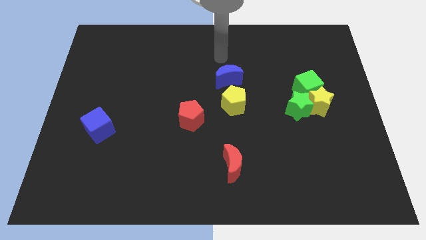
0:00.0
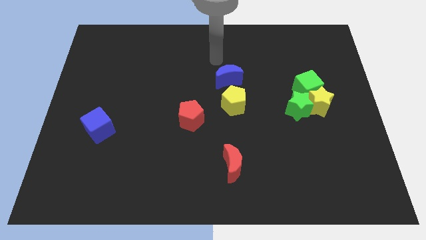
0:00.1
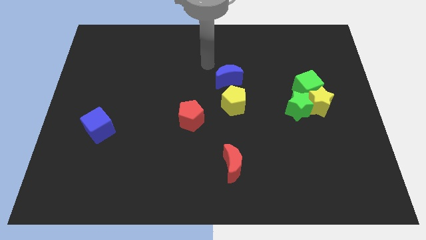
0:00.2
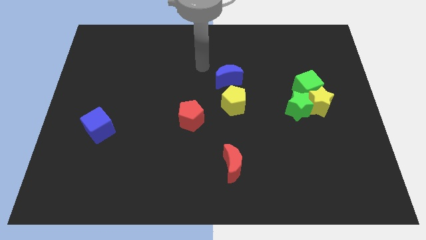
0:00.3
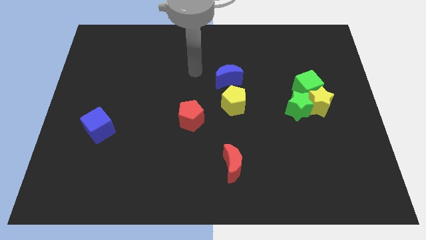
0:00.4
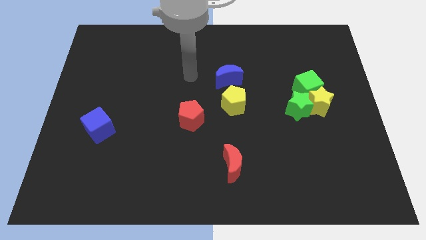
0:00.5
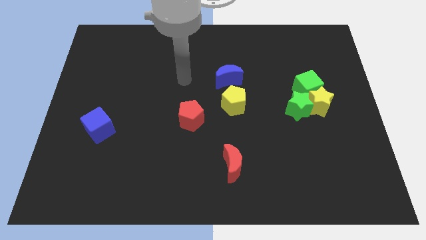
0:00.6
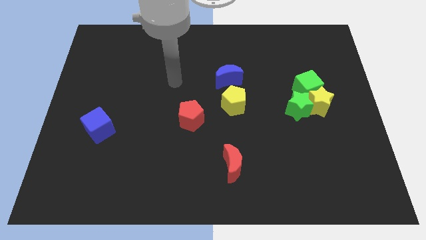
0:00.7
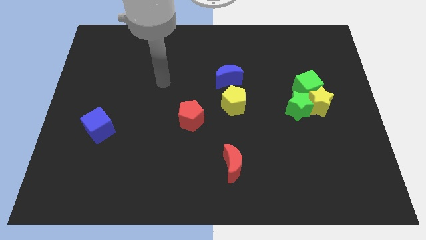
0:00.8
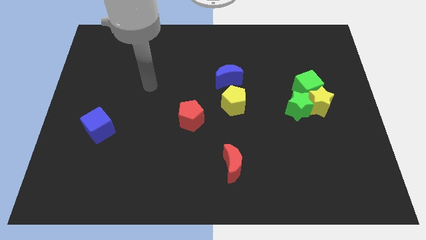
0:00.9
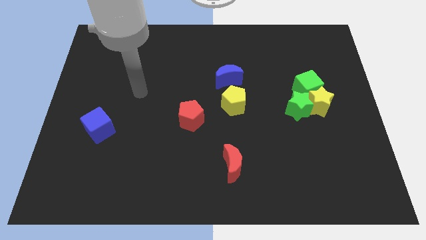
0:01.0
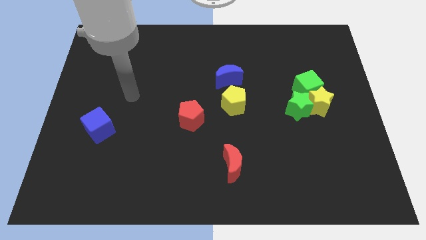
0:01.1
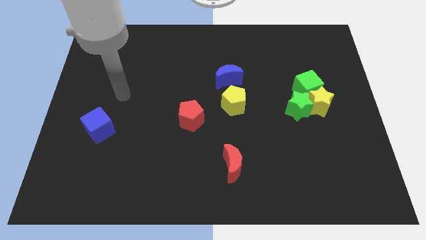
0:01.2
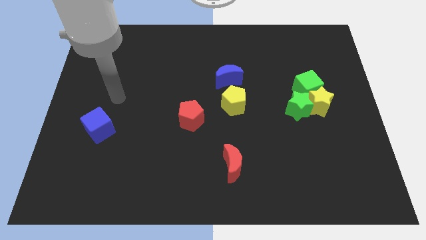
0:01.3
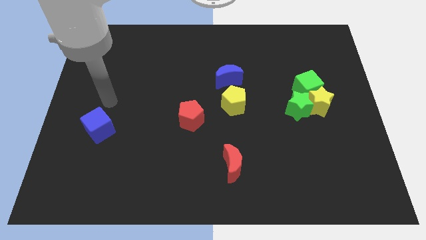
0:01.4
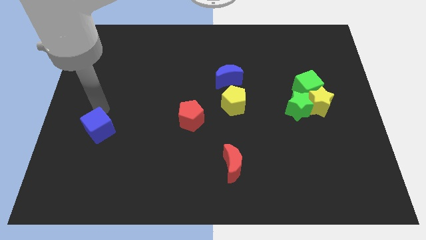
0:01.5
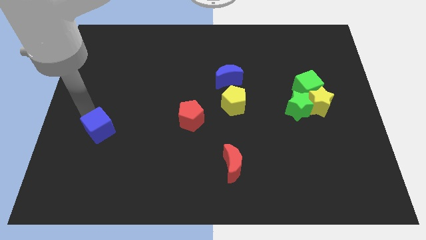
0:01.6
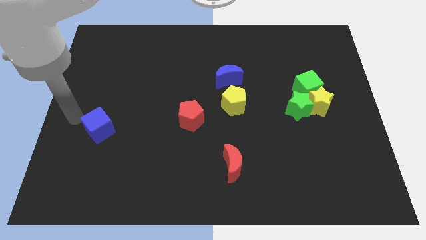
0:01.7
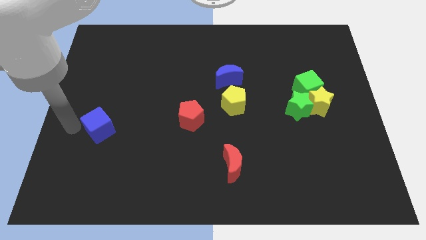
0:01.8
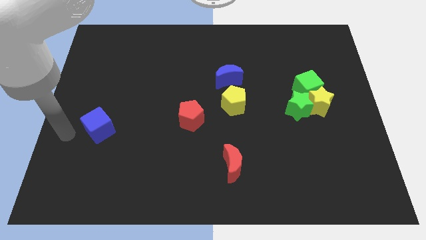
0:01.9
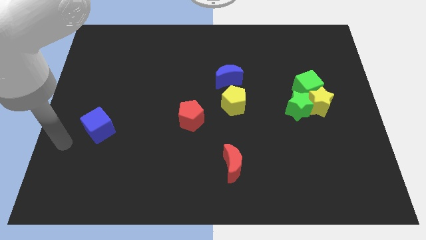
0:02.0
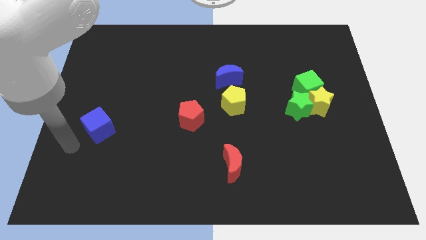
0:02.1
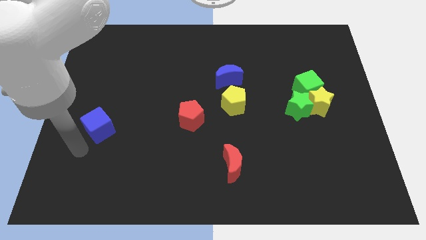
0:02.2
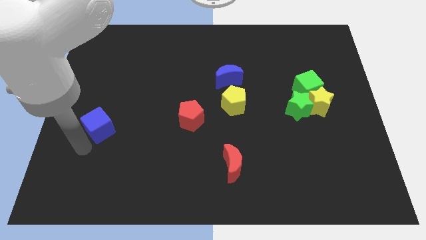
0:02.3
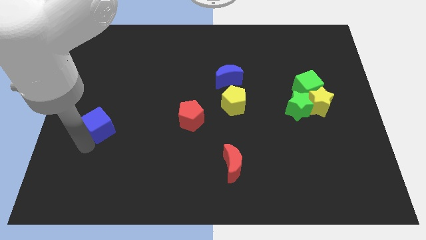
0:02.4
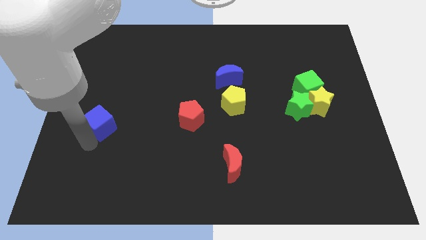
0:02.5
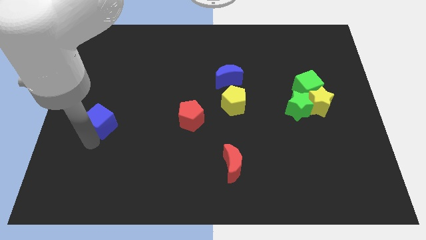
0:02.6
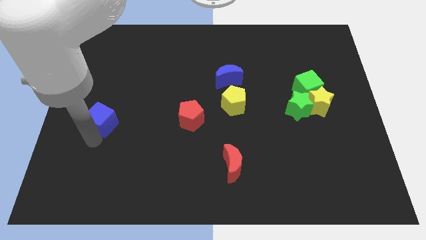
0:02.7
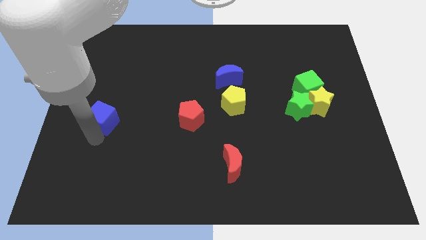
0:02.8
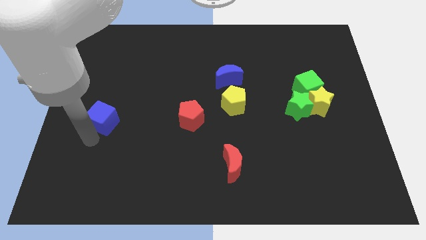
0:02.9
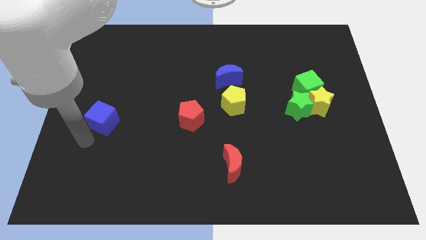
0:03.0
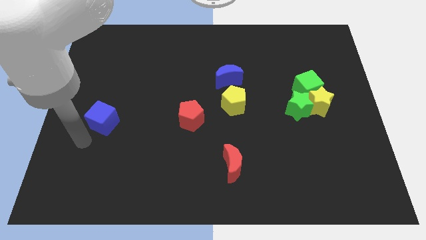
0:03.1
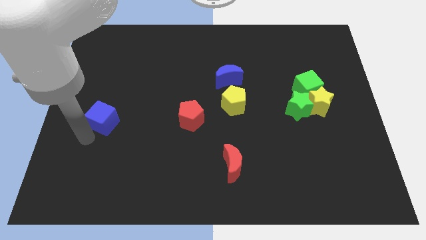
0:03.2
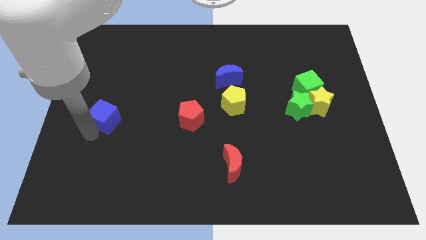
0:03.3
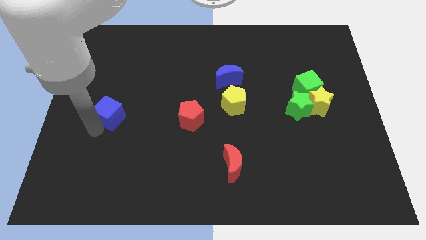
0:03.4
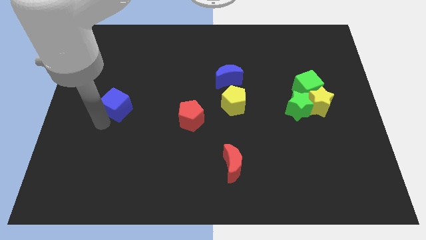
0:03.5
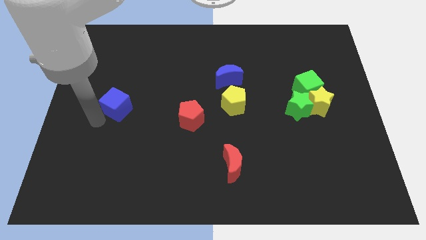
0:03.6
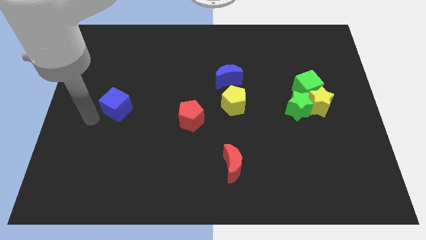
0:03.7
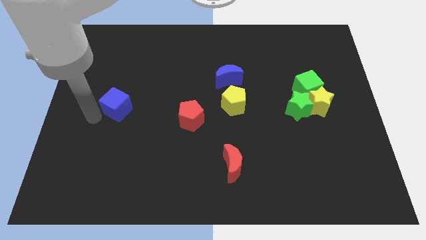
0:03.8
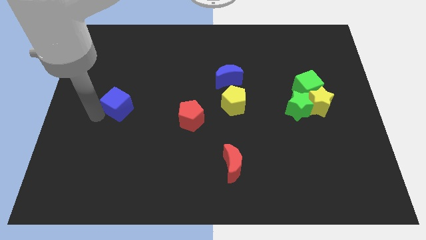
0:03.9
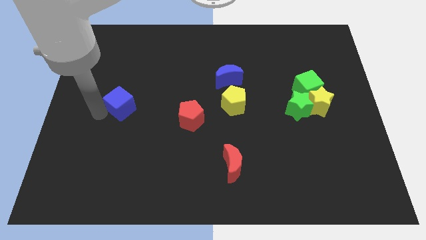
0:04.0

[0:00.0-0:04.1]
slide the blue cube a little bit up and right diagonally

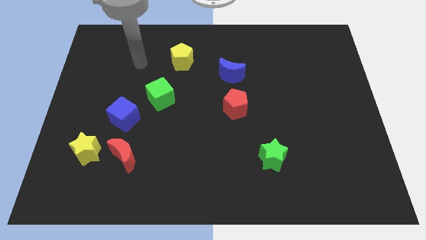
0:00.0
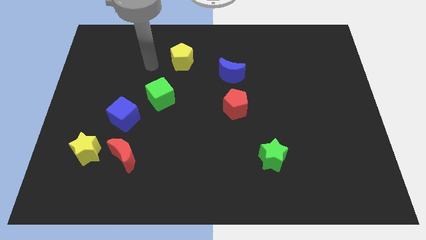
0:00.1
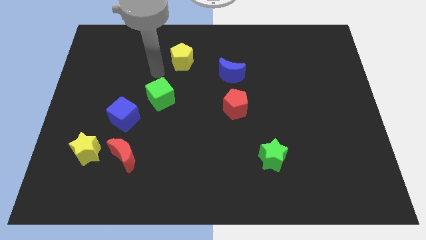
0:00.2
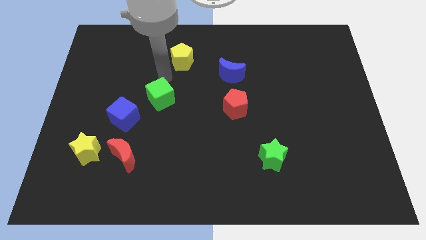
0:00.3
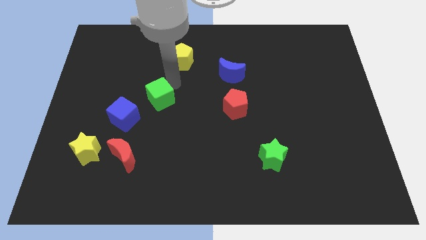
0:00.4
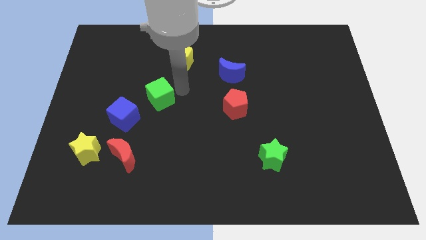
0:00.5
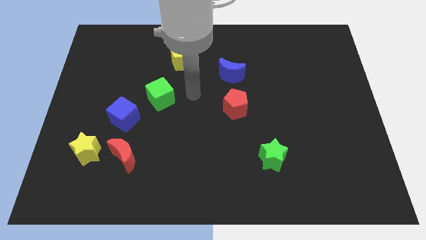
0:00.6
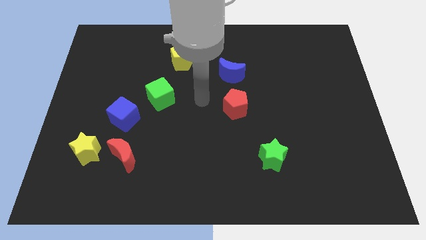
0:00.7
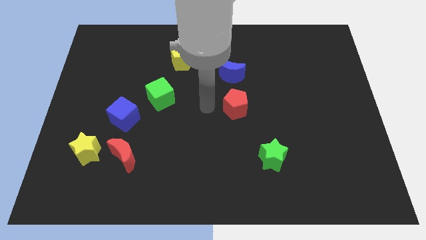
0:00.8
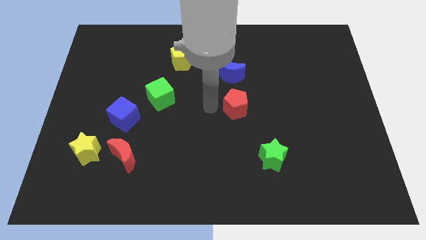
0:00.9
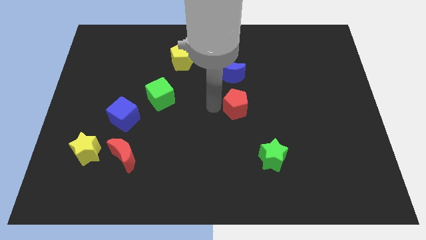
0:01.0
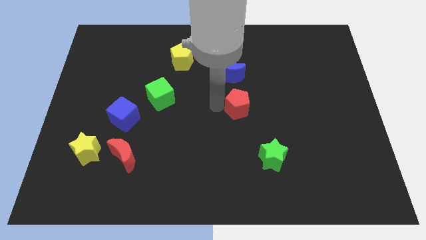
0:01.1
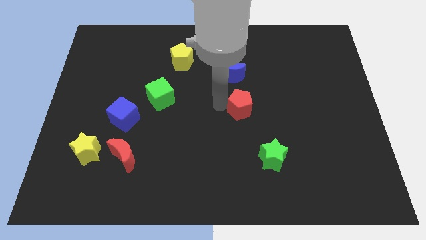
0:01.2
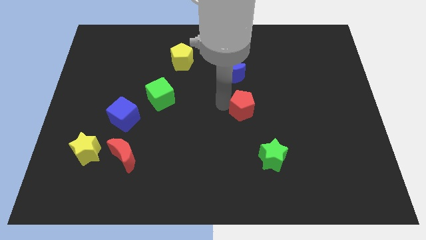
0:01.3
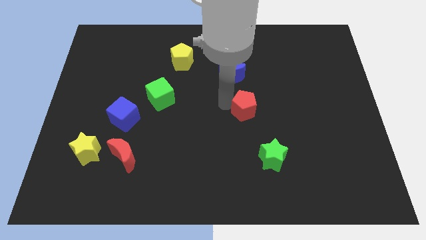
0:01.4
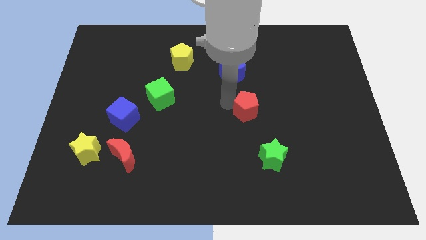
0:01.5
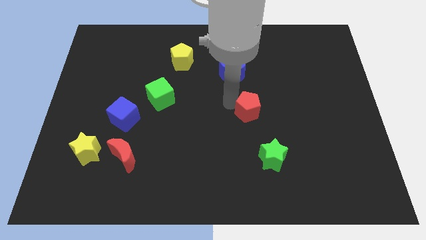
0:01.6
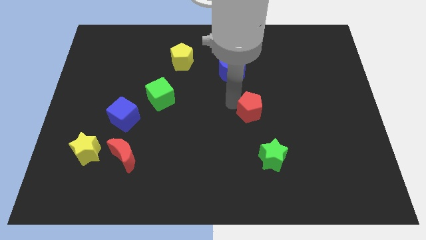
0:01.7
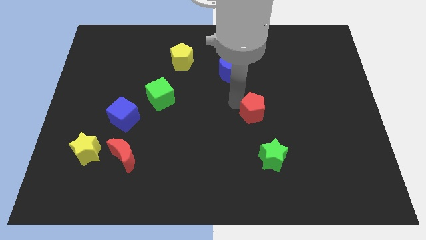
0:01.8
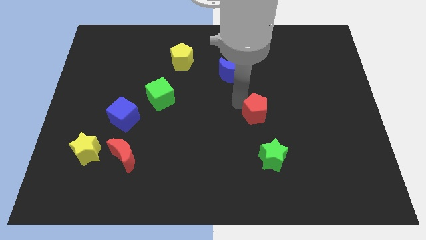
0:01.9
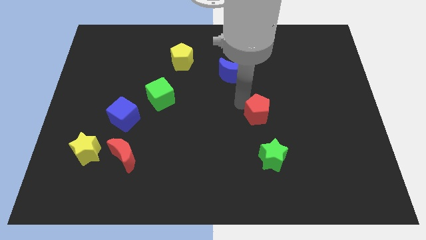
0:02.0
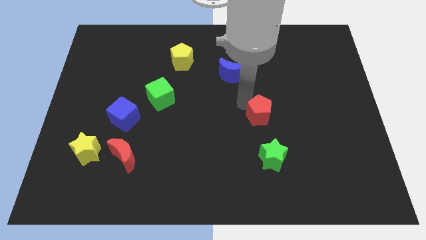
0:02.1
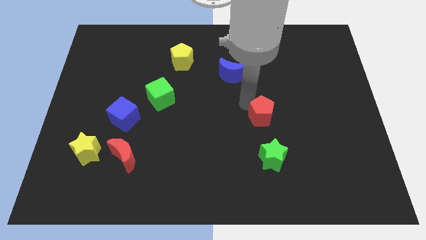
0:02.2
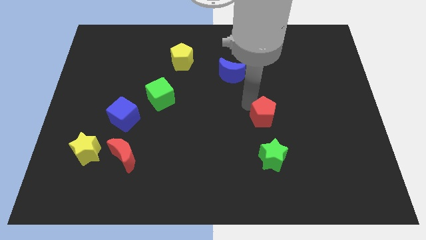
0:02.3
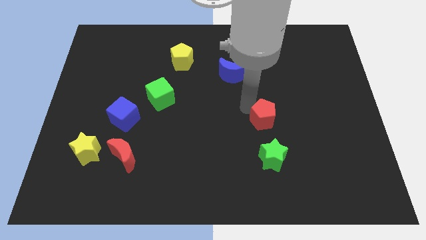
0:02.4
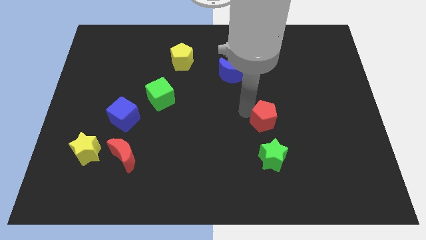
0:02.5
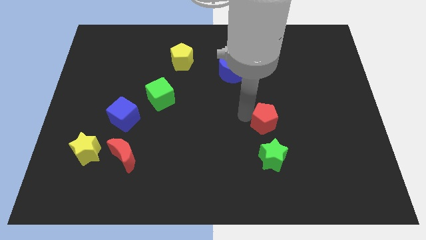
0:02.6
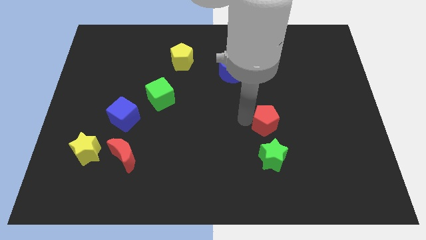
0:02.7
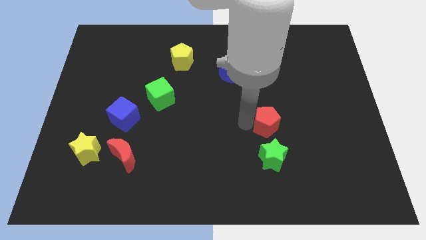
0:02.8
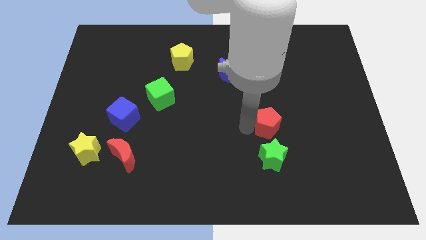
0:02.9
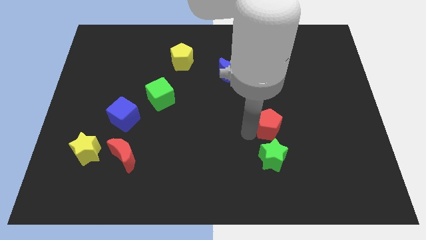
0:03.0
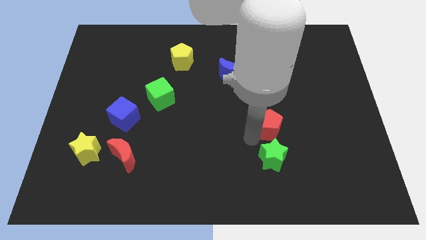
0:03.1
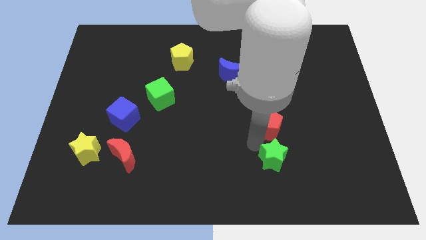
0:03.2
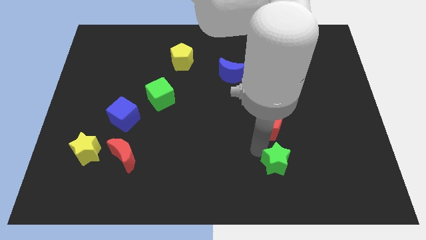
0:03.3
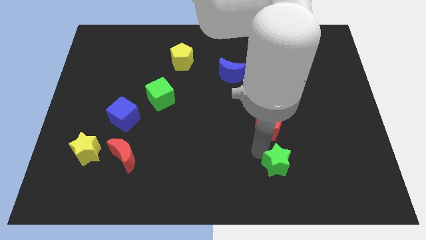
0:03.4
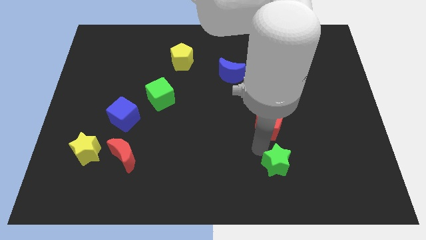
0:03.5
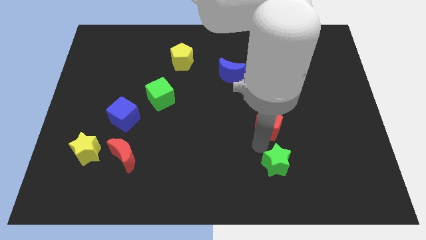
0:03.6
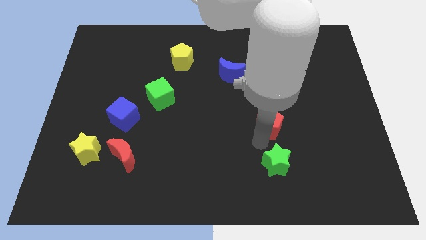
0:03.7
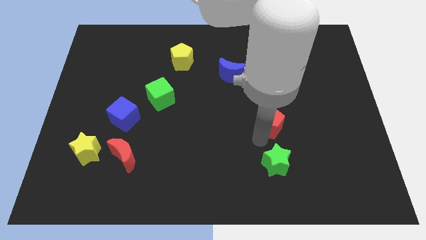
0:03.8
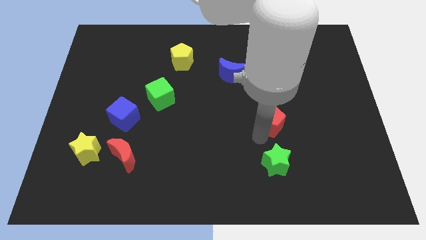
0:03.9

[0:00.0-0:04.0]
slightly push the red pentagon to the right
